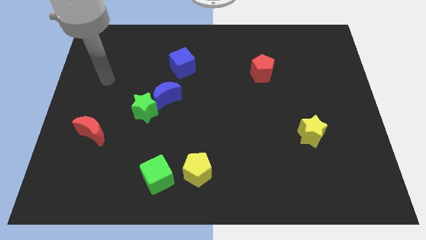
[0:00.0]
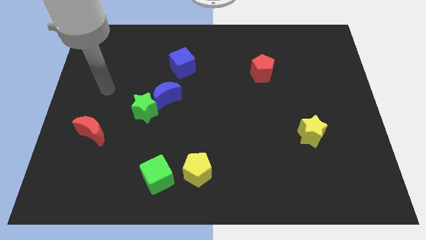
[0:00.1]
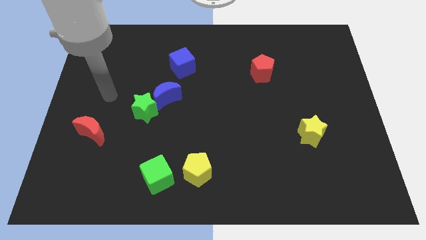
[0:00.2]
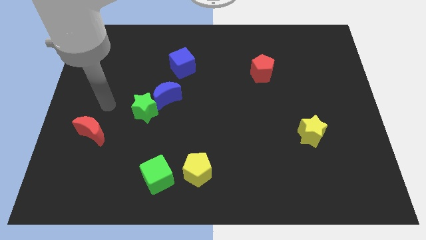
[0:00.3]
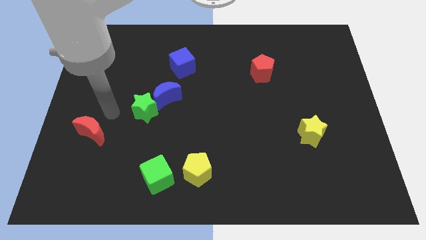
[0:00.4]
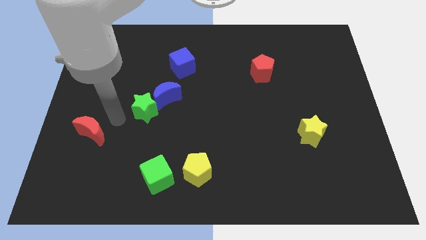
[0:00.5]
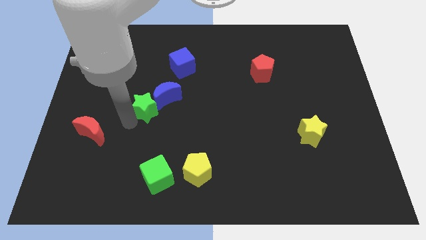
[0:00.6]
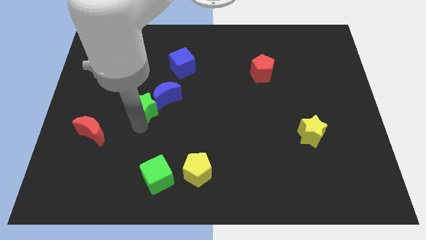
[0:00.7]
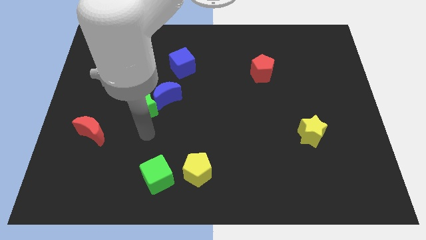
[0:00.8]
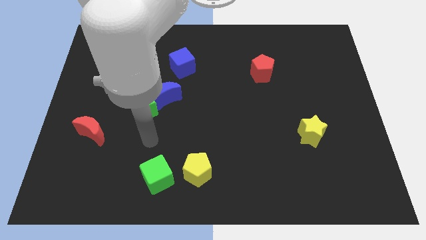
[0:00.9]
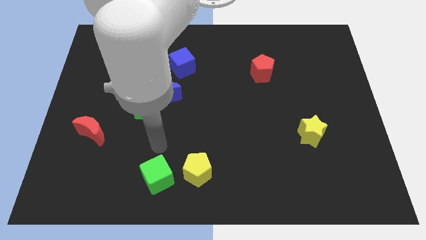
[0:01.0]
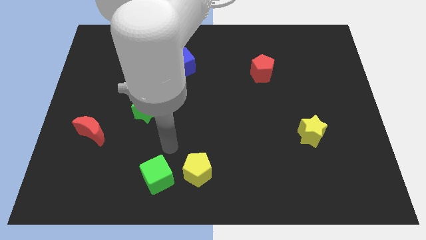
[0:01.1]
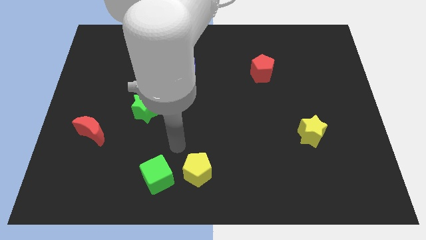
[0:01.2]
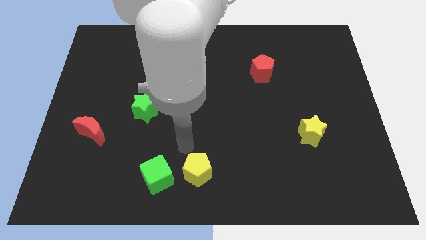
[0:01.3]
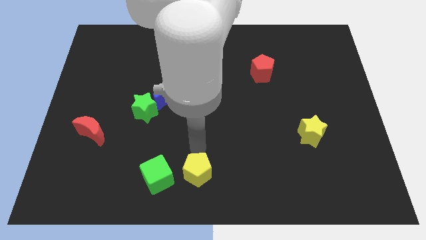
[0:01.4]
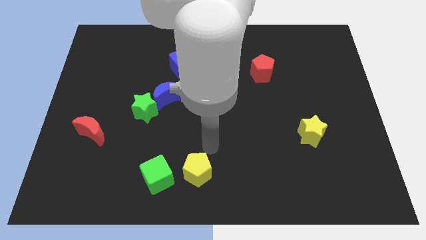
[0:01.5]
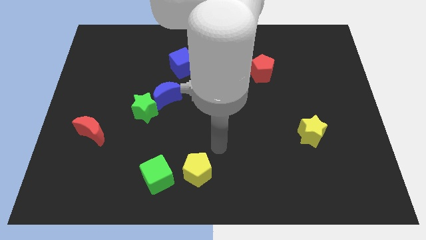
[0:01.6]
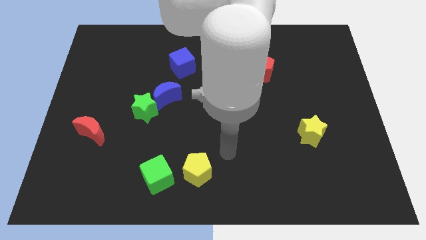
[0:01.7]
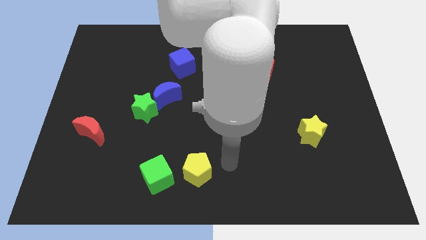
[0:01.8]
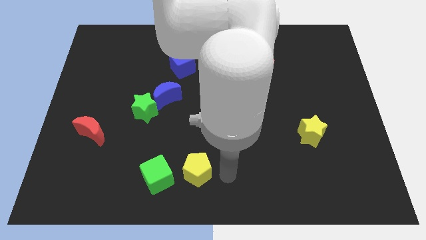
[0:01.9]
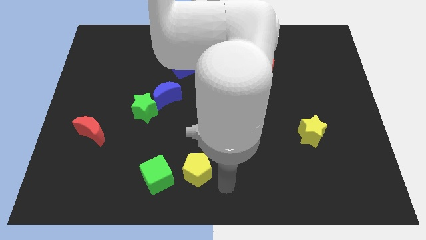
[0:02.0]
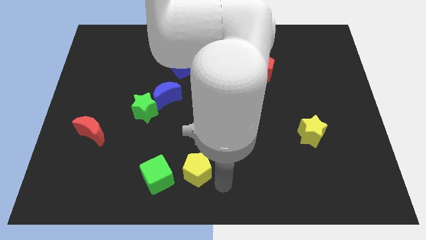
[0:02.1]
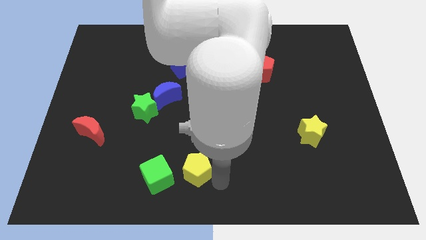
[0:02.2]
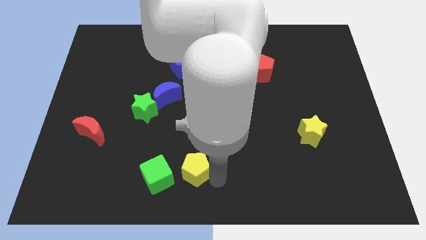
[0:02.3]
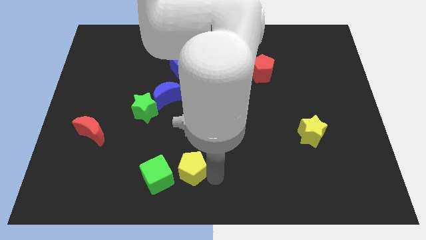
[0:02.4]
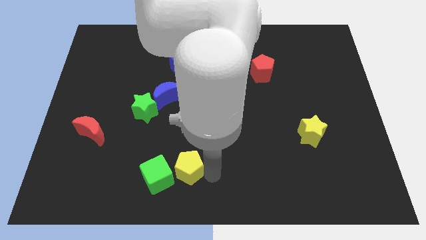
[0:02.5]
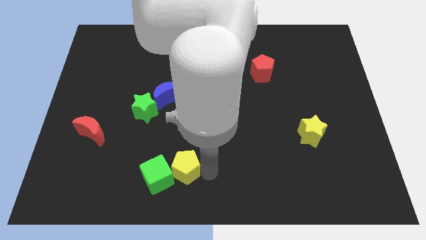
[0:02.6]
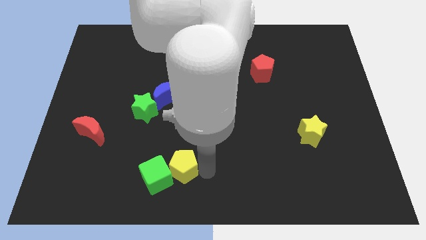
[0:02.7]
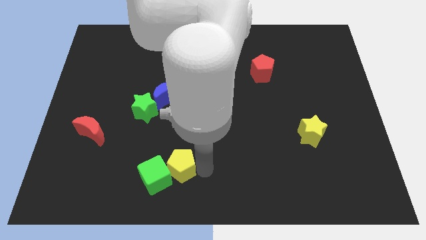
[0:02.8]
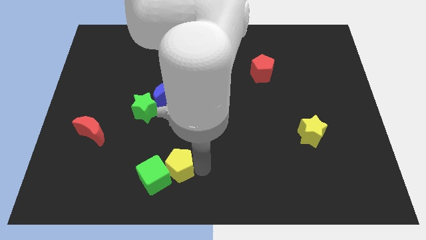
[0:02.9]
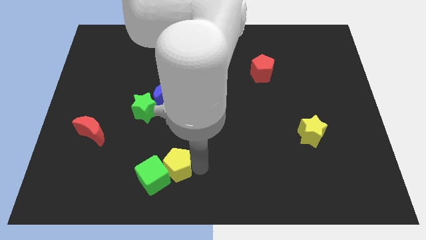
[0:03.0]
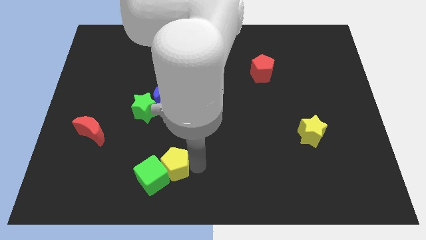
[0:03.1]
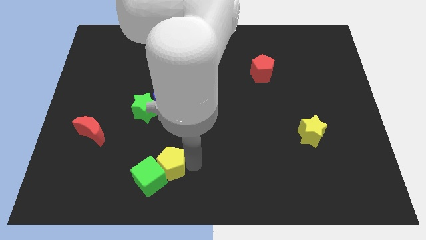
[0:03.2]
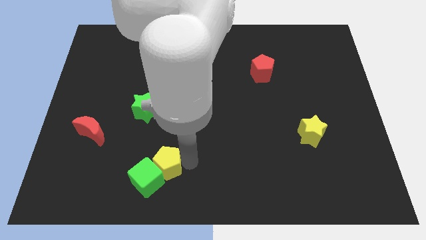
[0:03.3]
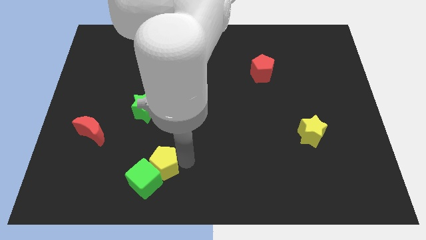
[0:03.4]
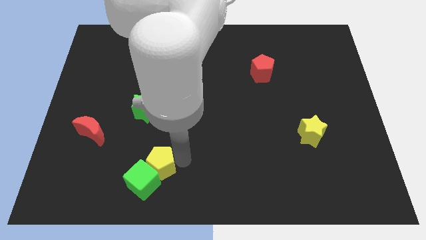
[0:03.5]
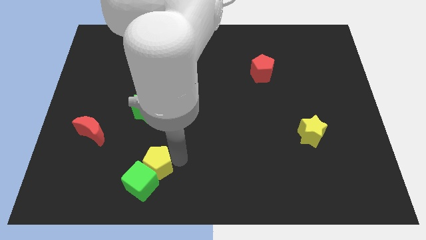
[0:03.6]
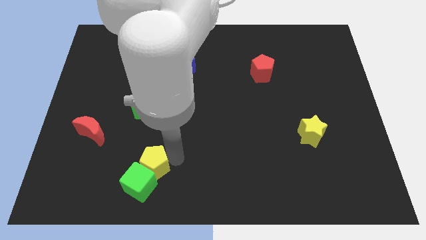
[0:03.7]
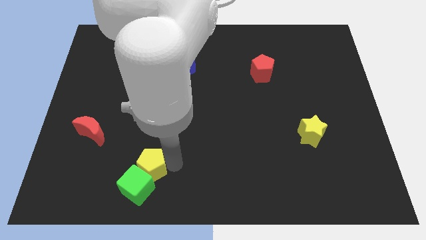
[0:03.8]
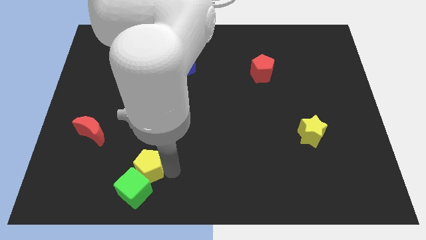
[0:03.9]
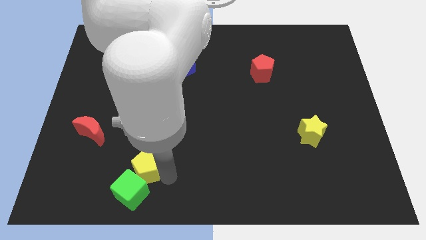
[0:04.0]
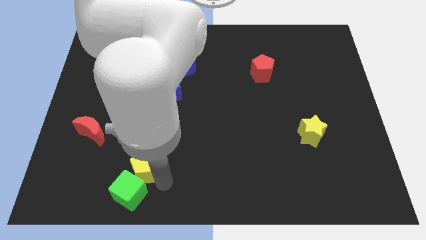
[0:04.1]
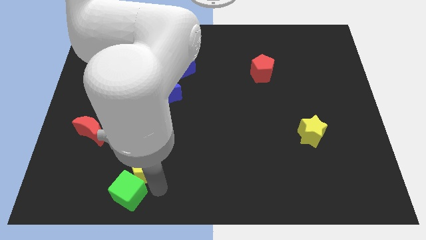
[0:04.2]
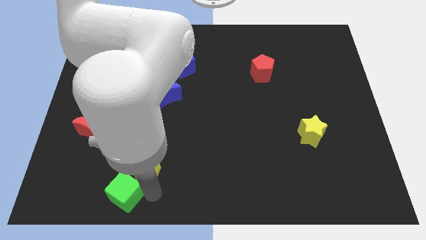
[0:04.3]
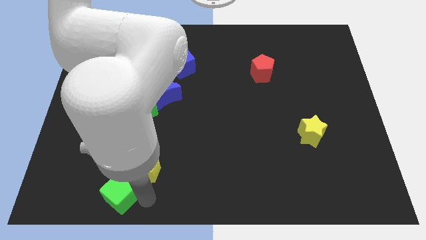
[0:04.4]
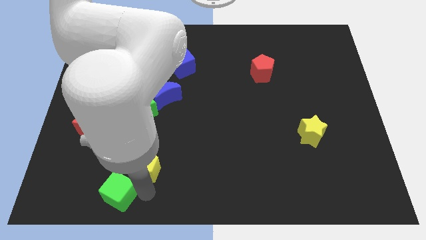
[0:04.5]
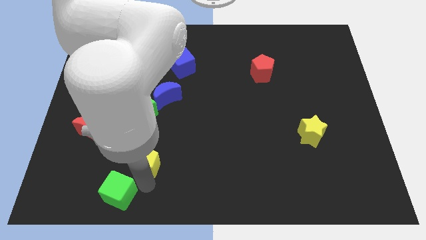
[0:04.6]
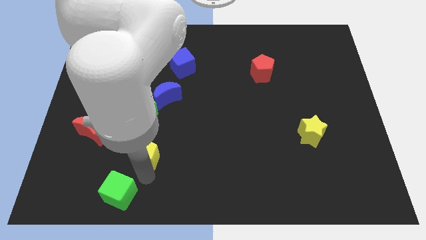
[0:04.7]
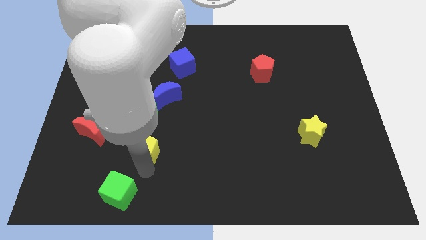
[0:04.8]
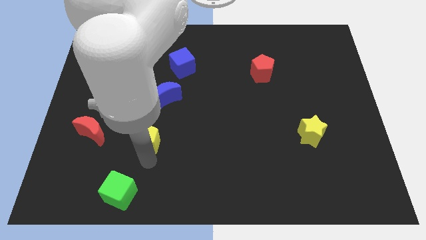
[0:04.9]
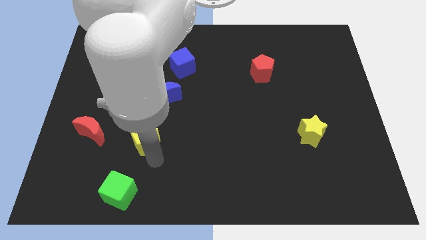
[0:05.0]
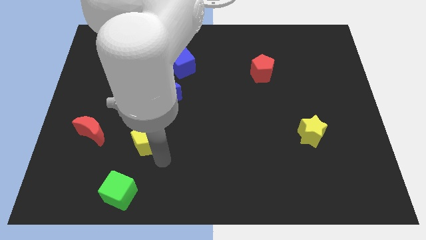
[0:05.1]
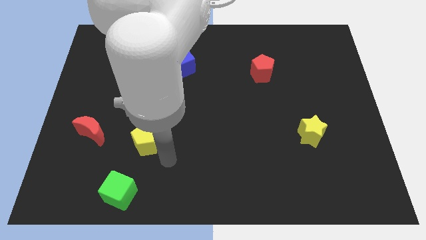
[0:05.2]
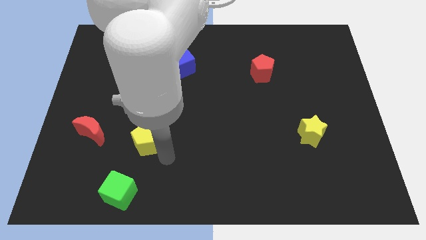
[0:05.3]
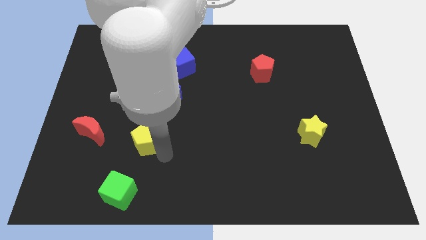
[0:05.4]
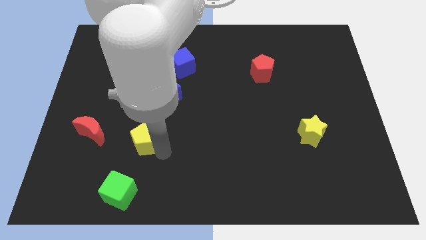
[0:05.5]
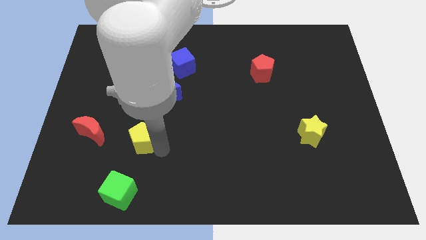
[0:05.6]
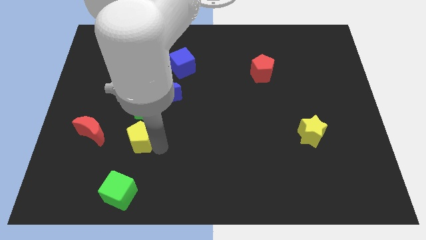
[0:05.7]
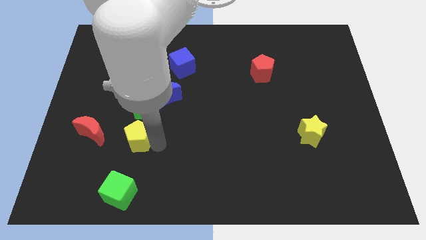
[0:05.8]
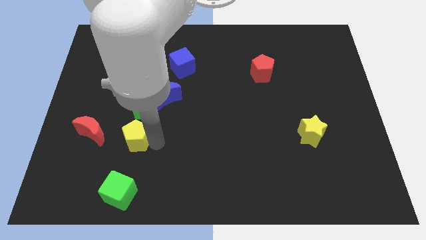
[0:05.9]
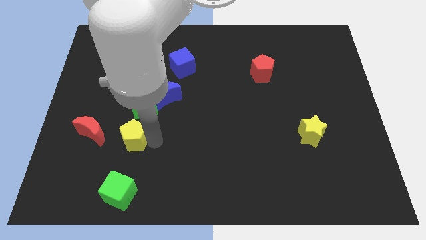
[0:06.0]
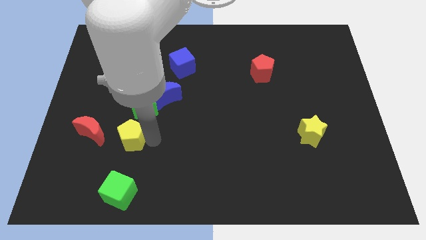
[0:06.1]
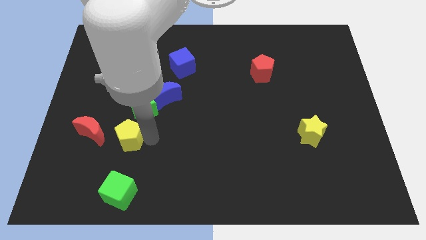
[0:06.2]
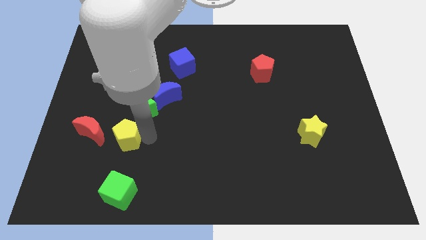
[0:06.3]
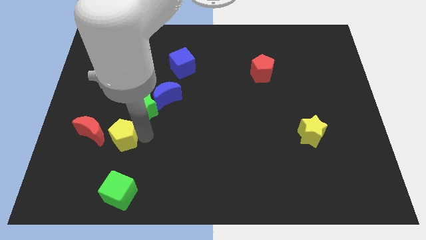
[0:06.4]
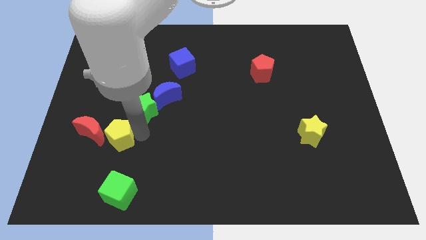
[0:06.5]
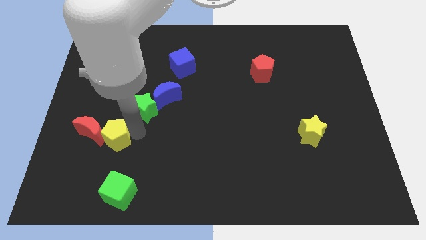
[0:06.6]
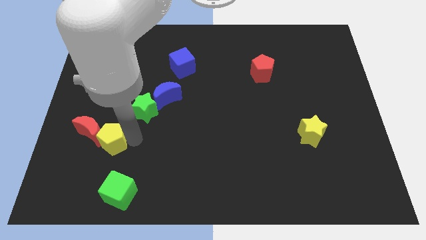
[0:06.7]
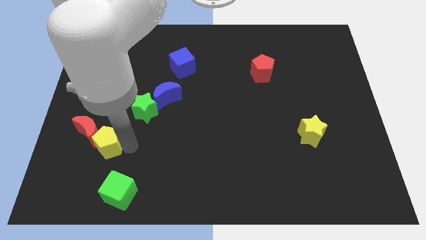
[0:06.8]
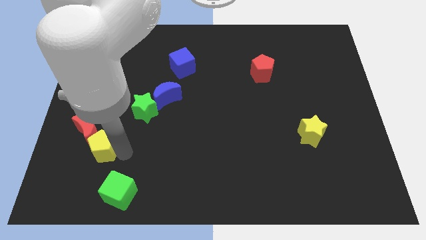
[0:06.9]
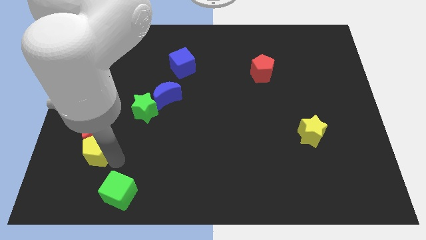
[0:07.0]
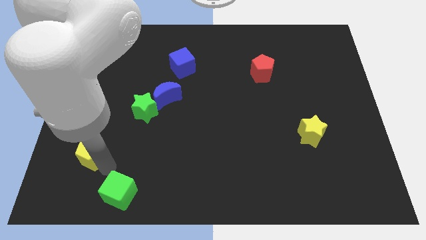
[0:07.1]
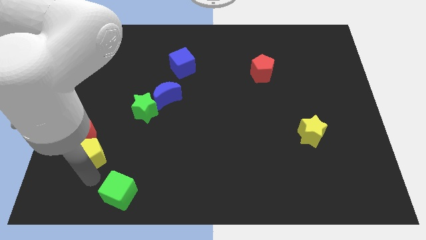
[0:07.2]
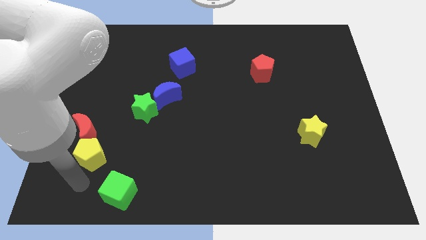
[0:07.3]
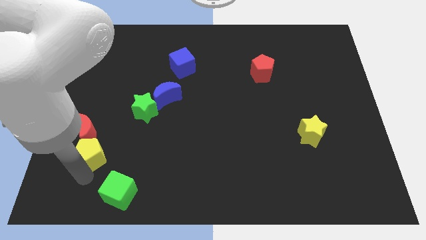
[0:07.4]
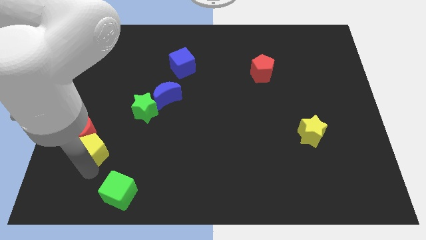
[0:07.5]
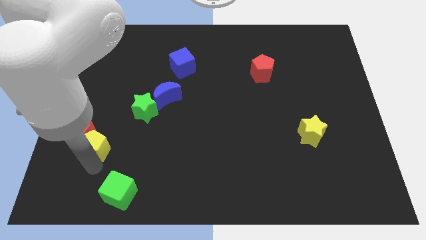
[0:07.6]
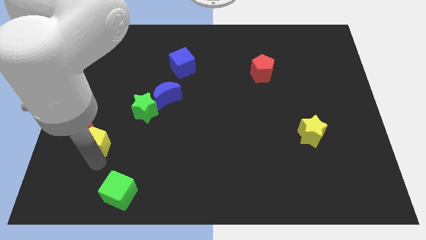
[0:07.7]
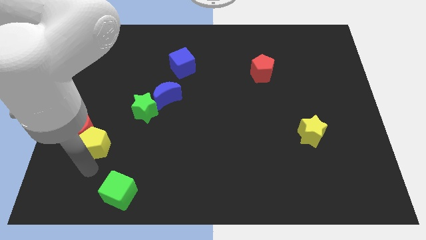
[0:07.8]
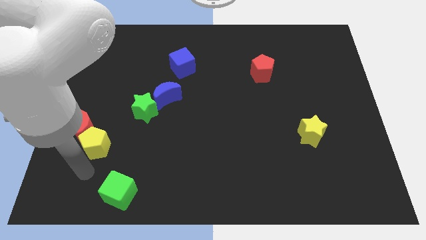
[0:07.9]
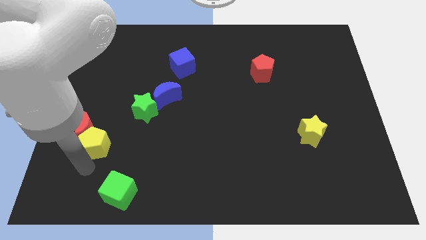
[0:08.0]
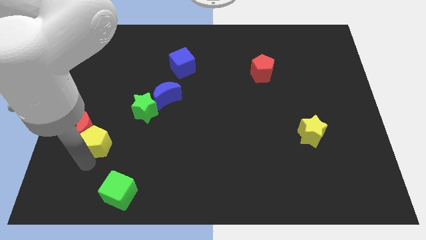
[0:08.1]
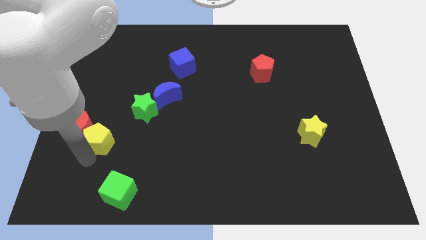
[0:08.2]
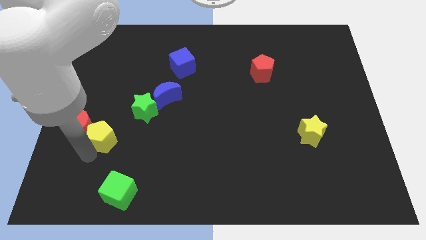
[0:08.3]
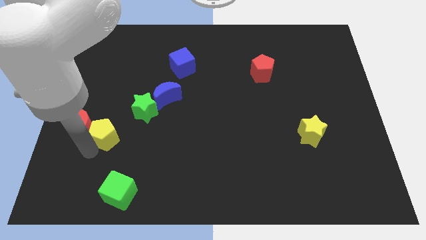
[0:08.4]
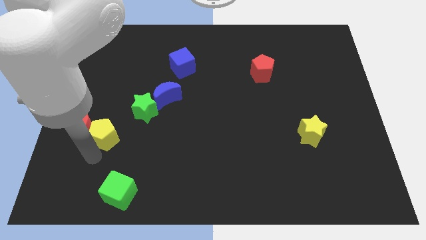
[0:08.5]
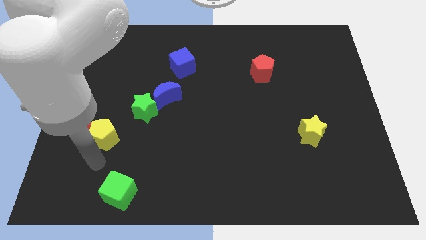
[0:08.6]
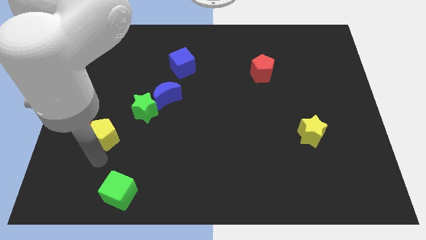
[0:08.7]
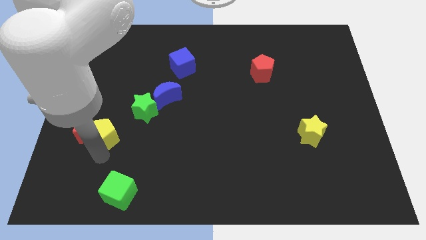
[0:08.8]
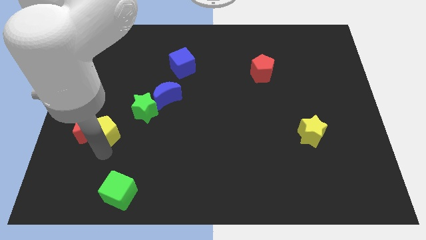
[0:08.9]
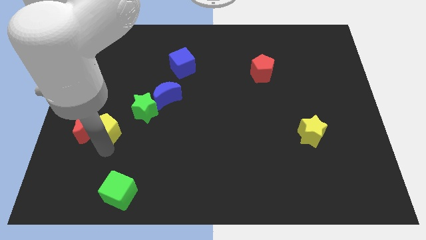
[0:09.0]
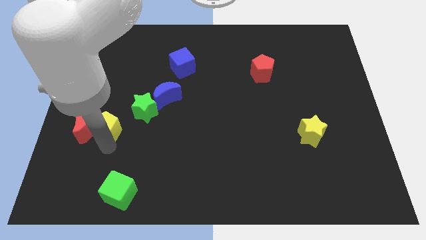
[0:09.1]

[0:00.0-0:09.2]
slide the yellow pentagon upwards and left
